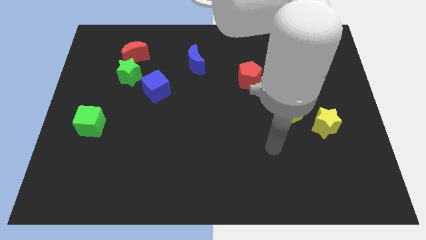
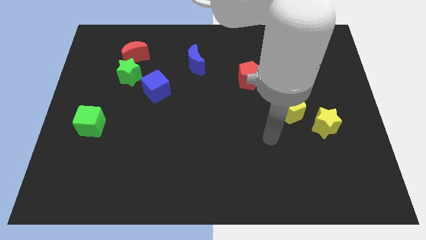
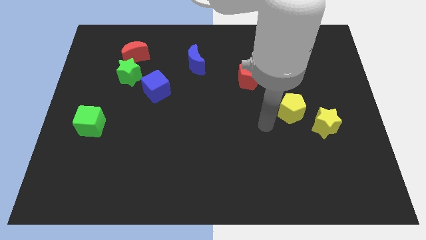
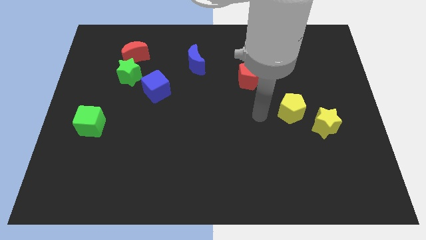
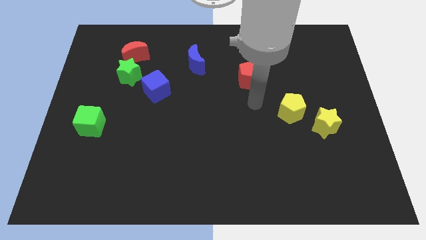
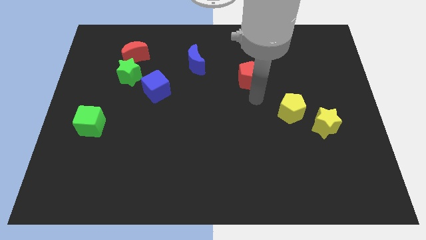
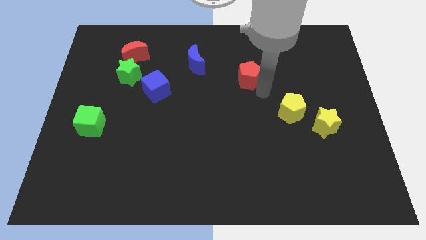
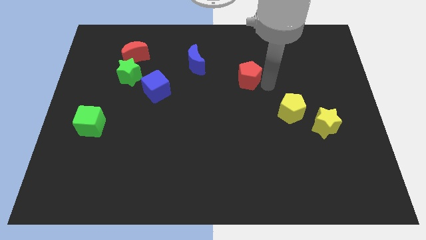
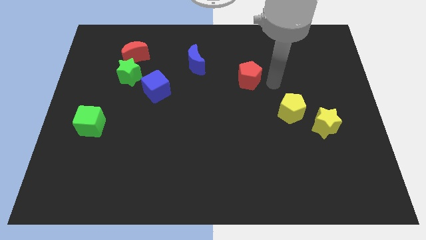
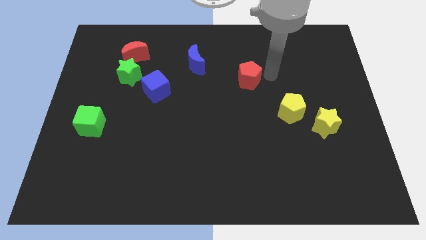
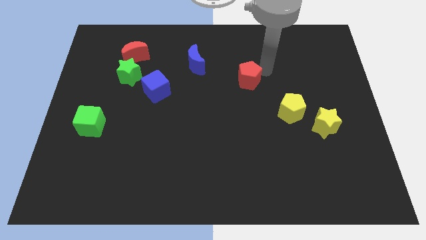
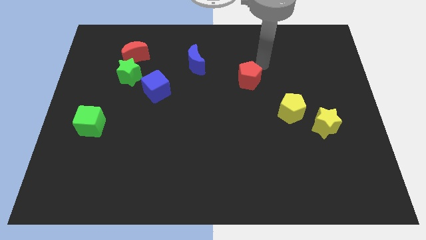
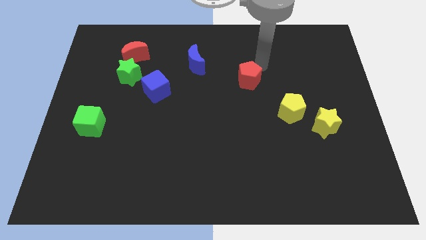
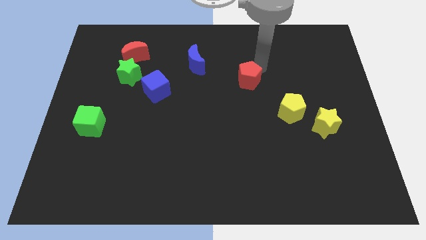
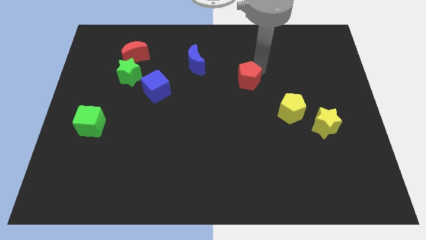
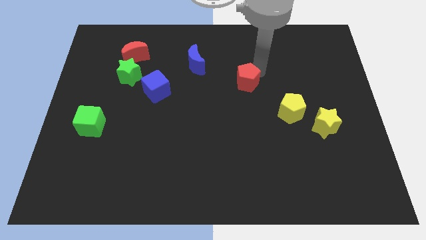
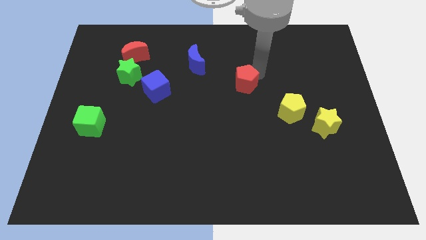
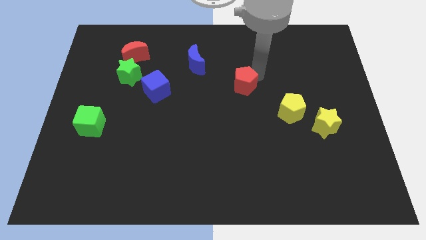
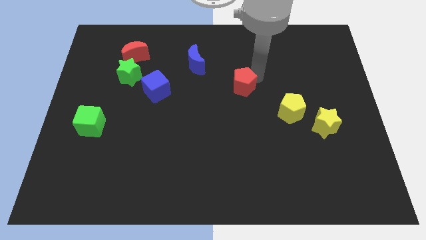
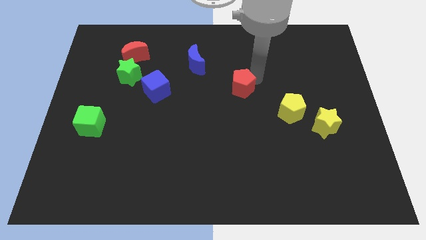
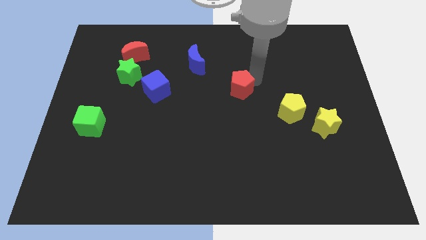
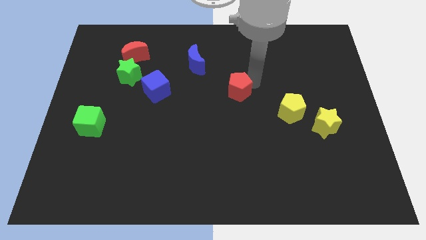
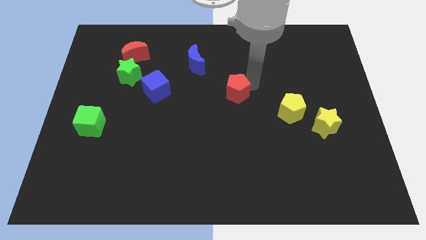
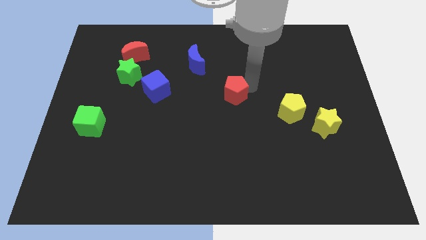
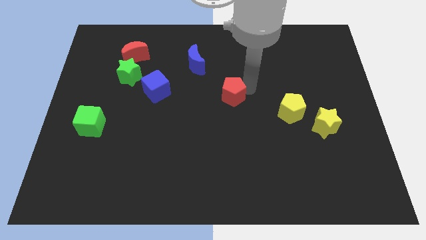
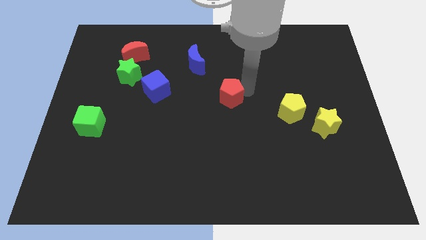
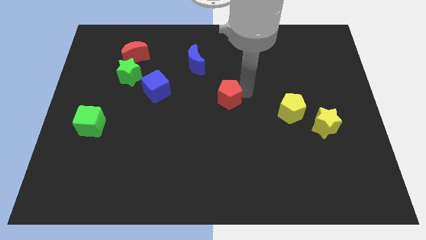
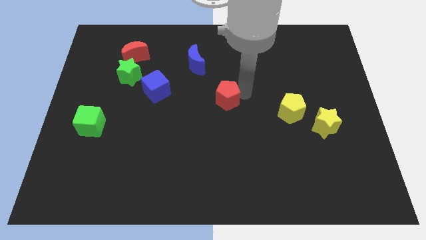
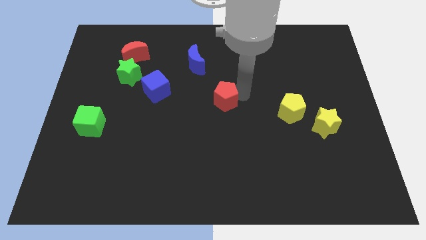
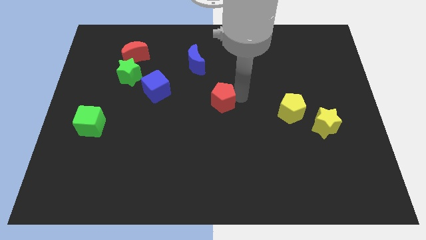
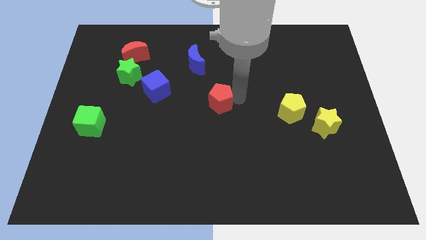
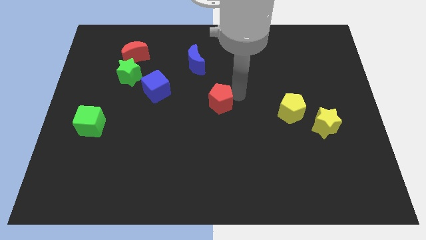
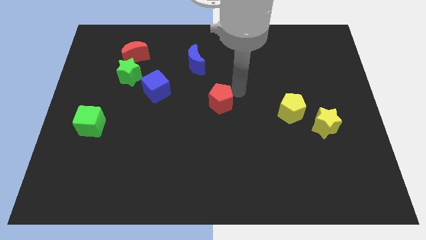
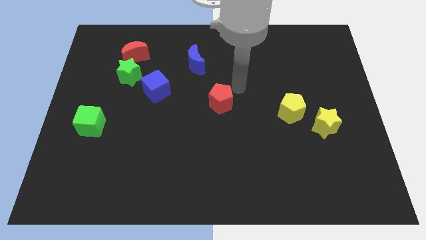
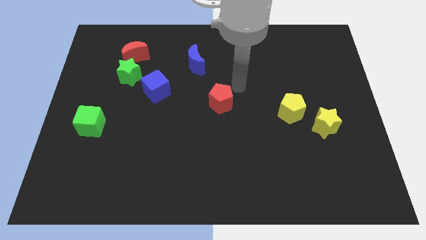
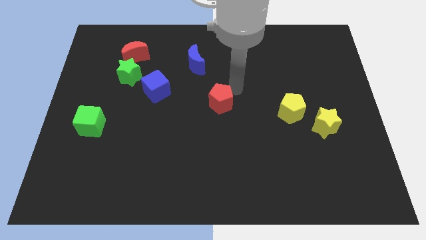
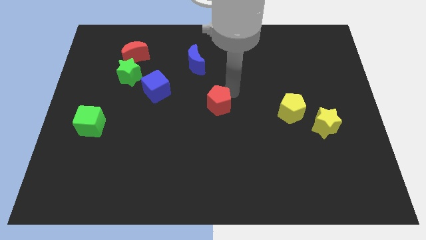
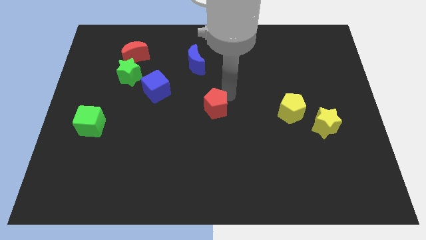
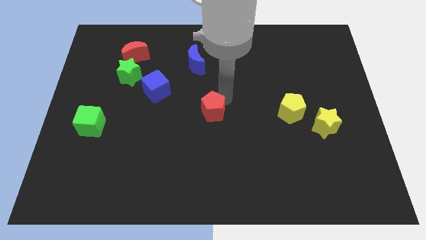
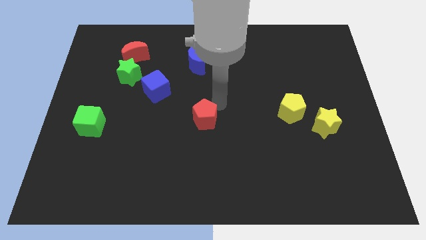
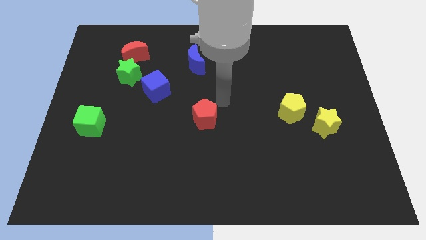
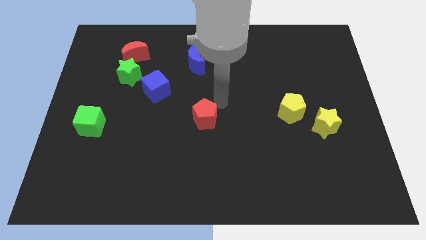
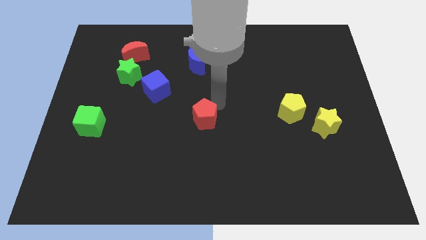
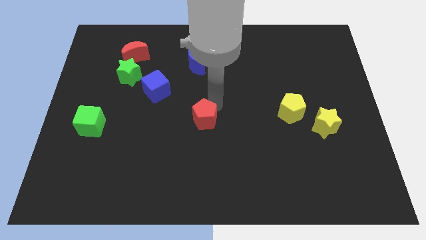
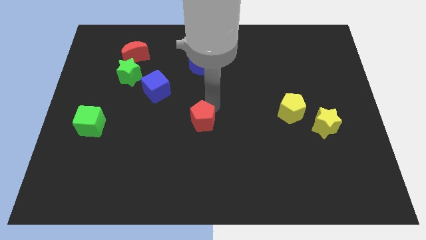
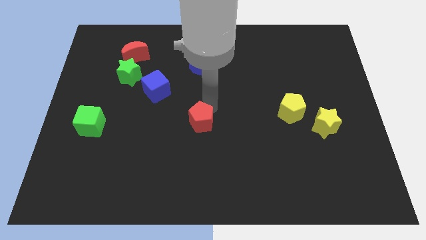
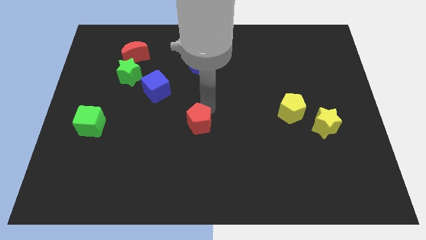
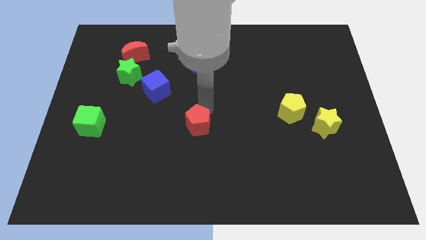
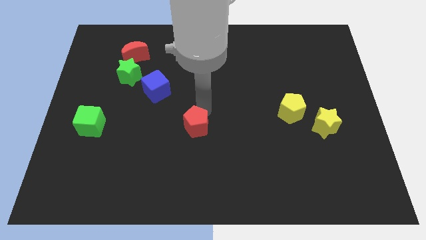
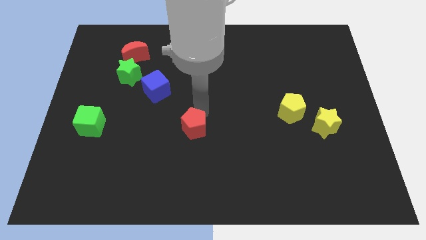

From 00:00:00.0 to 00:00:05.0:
slide the red pentagon down and then left

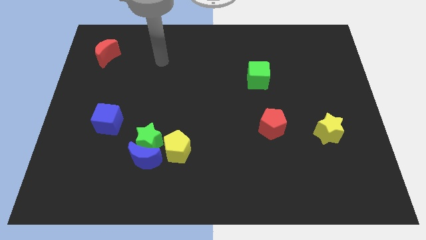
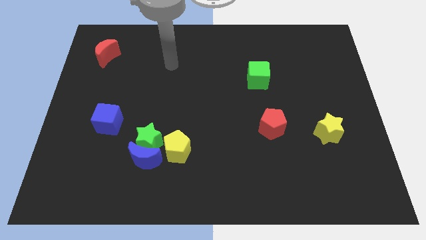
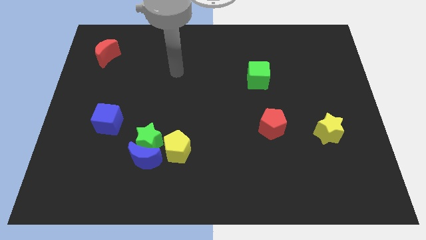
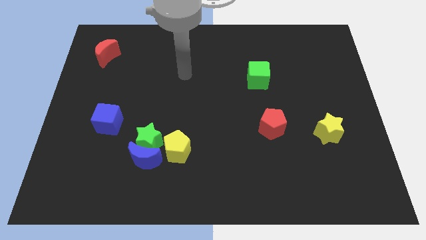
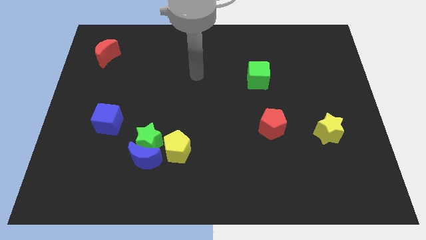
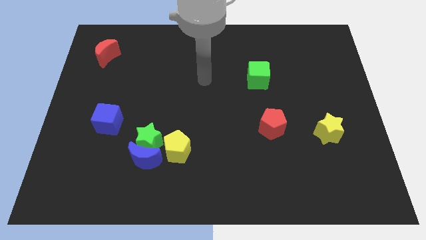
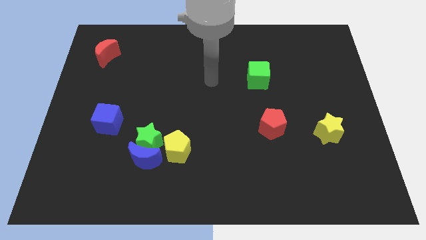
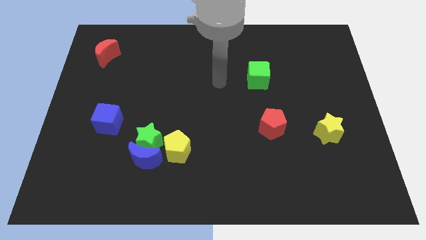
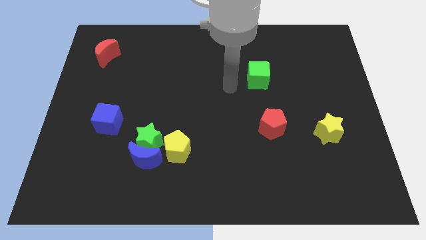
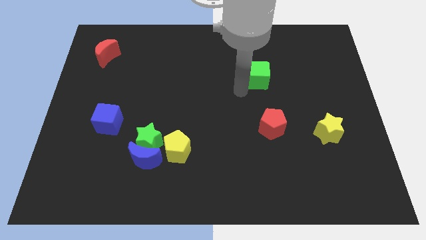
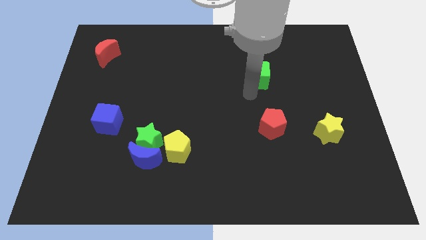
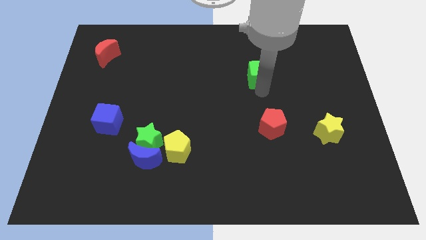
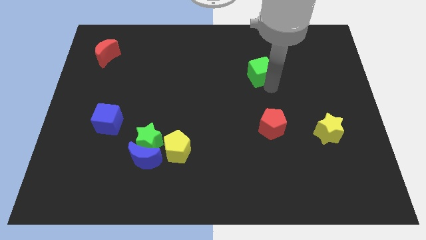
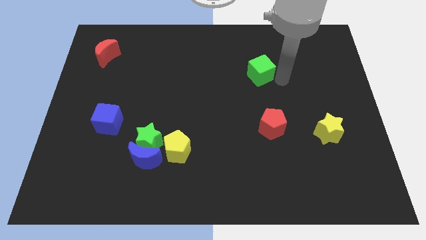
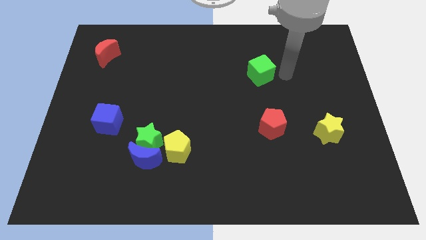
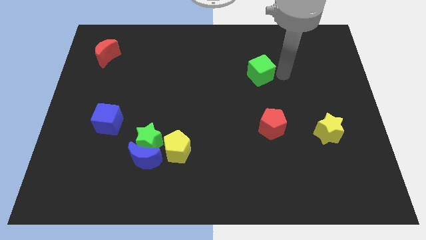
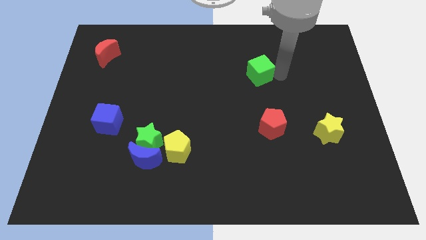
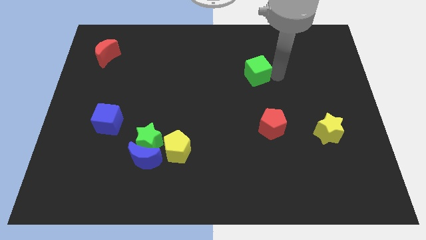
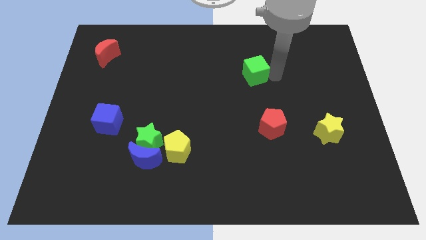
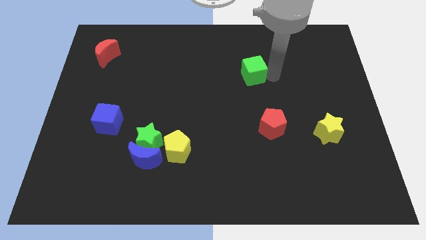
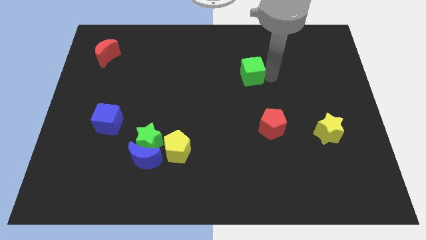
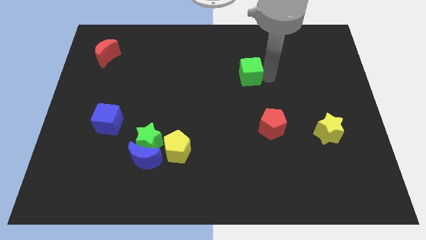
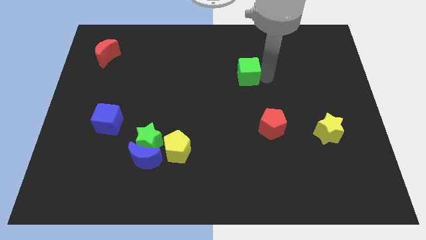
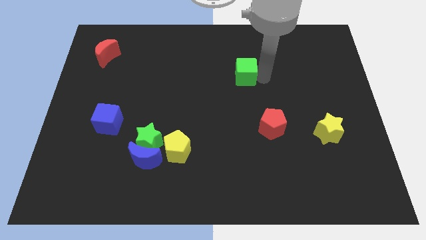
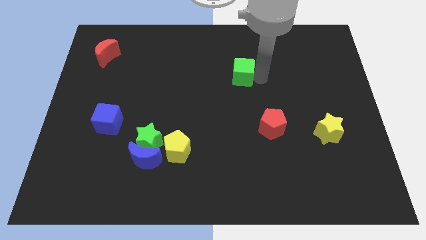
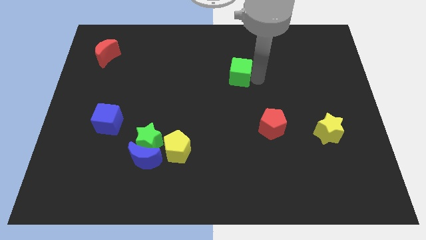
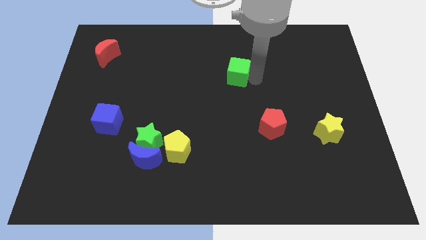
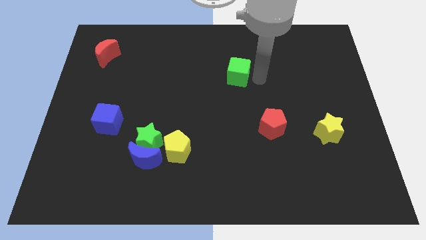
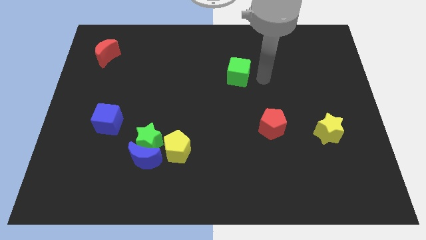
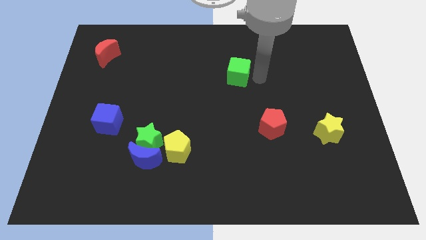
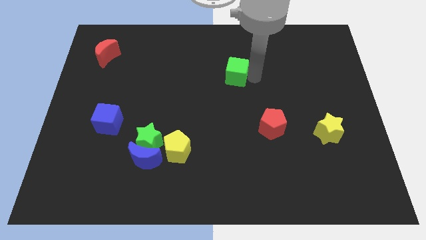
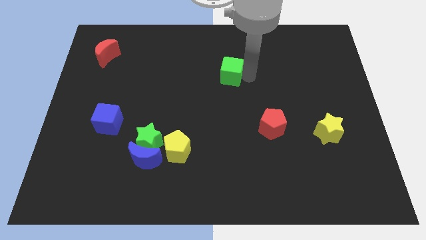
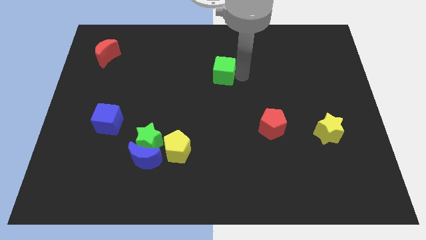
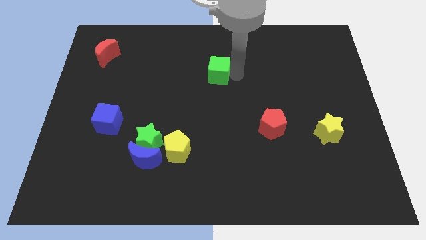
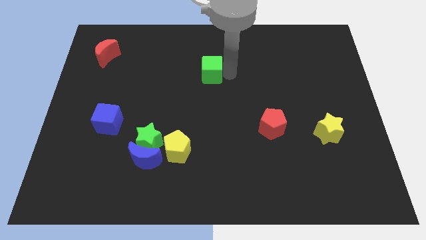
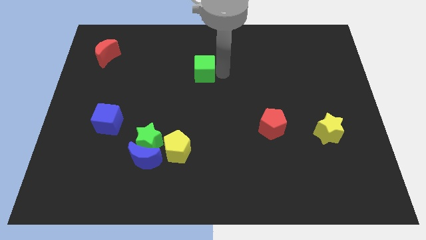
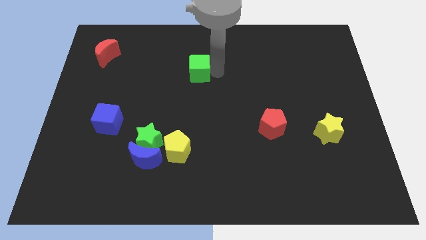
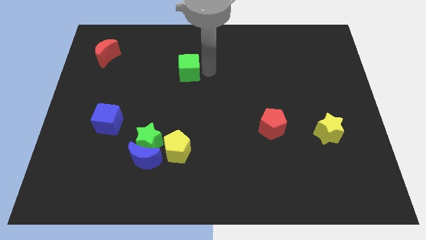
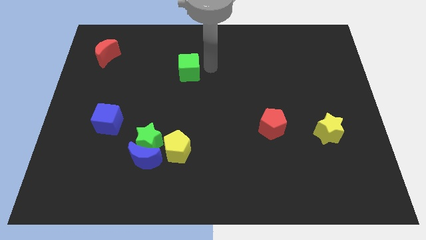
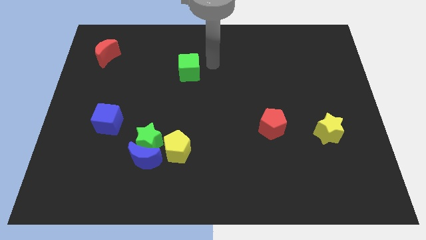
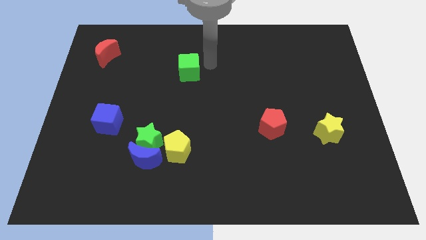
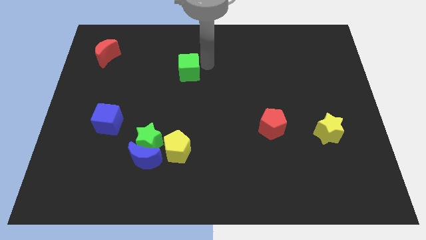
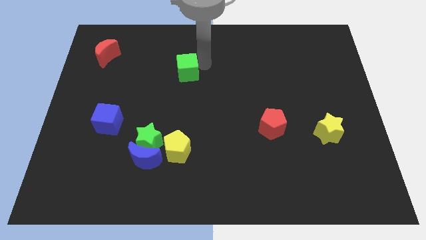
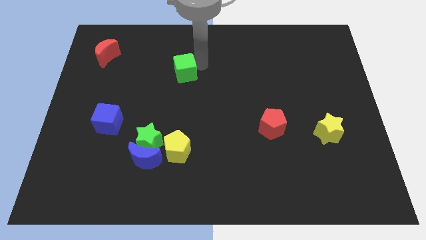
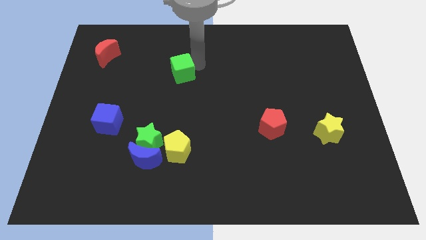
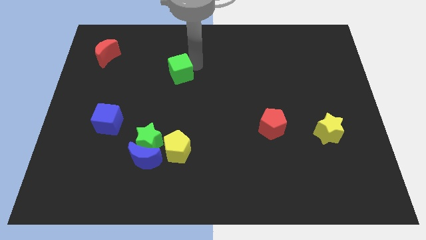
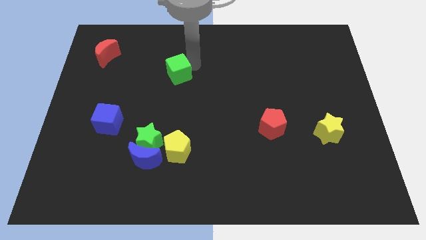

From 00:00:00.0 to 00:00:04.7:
push the green cube to the left
